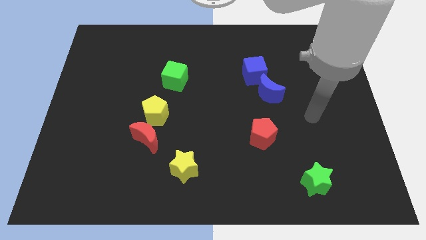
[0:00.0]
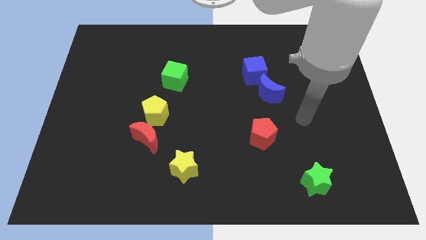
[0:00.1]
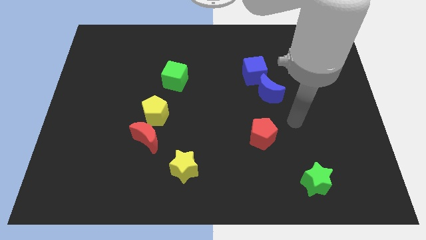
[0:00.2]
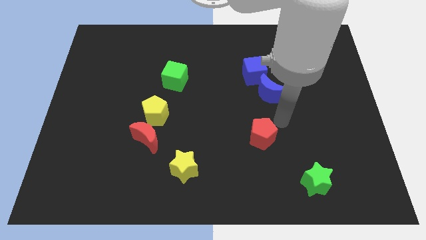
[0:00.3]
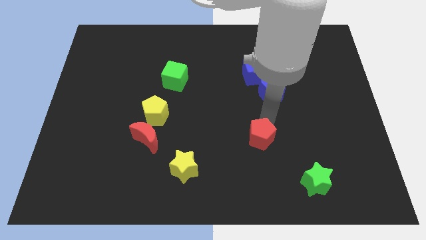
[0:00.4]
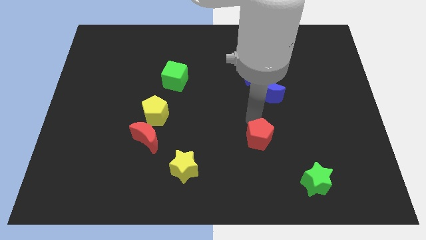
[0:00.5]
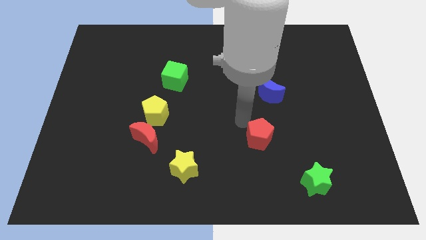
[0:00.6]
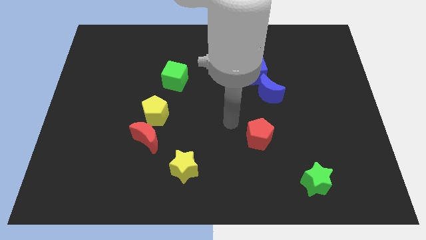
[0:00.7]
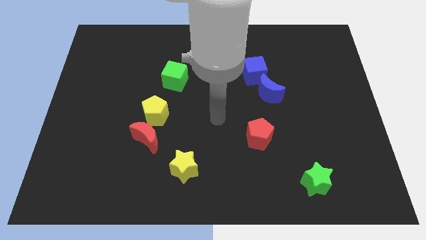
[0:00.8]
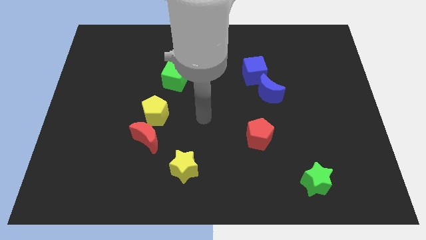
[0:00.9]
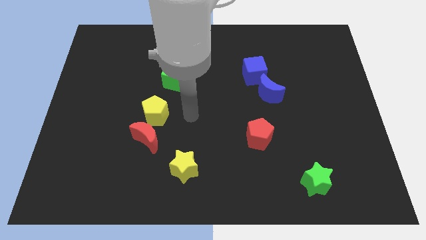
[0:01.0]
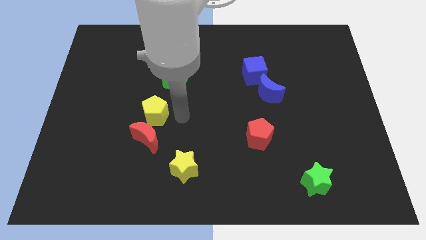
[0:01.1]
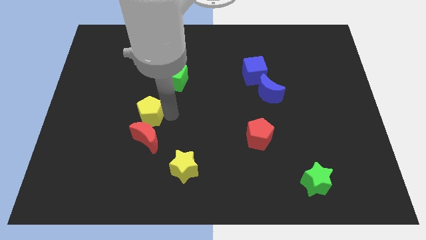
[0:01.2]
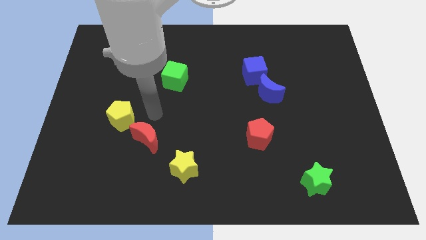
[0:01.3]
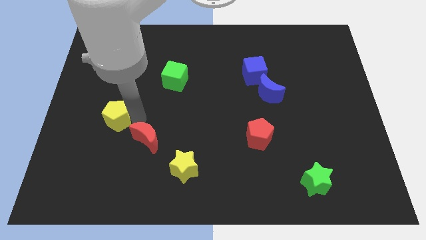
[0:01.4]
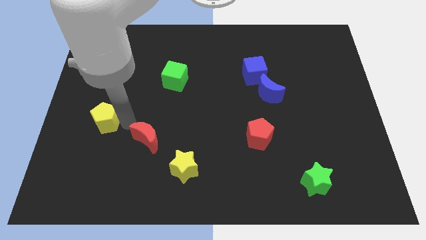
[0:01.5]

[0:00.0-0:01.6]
pull the red moon apart from the yellow pentagon

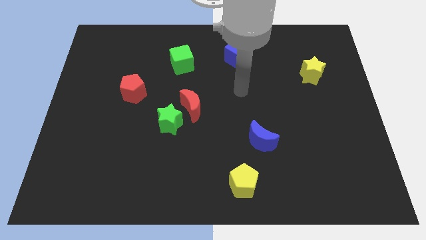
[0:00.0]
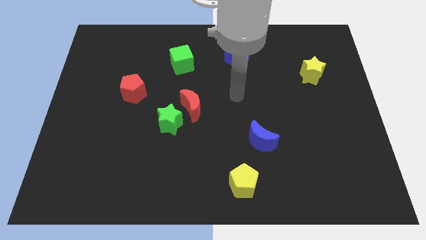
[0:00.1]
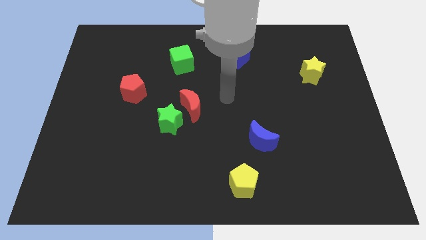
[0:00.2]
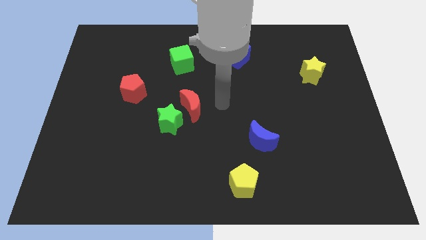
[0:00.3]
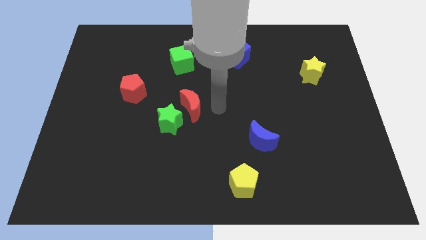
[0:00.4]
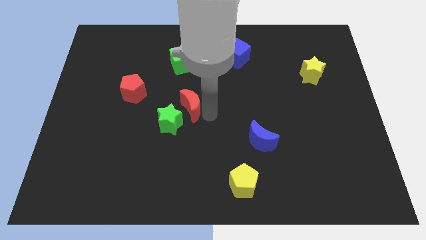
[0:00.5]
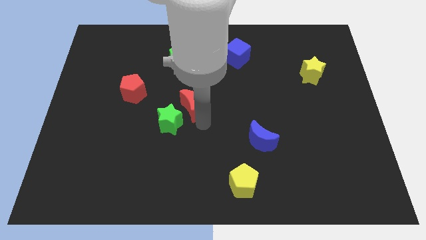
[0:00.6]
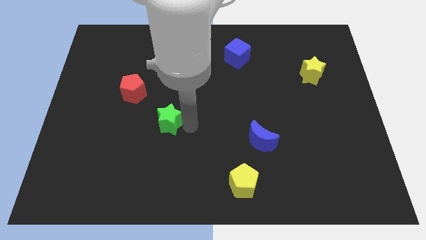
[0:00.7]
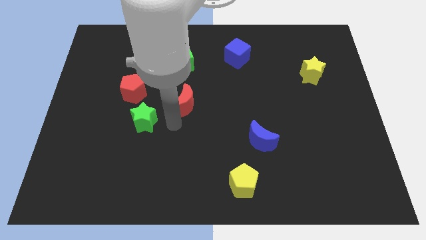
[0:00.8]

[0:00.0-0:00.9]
separate the red moon from the green star

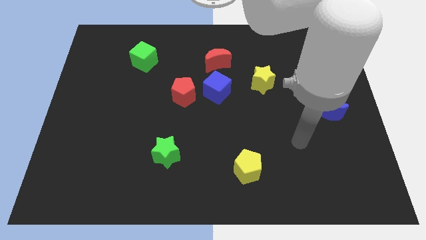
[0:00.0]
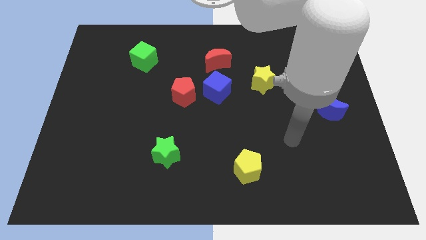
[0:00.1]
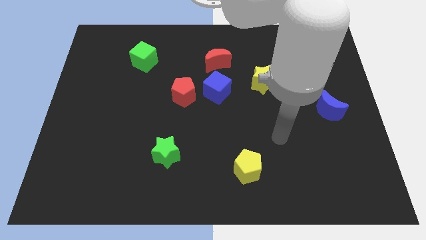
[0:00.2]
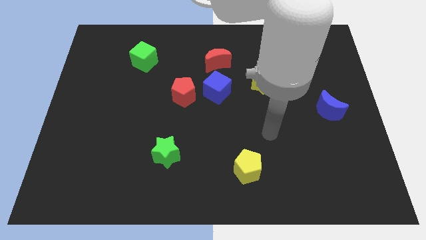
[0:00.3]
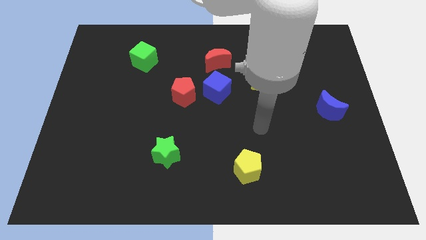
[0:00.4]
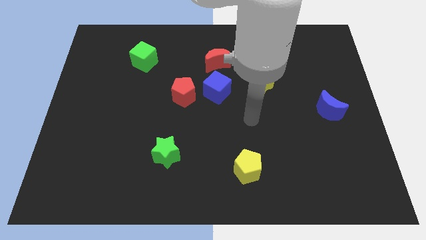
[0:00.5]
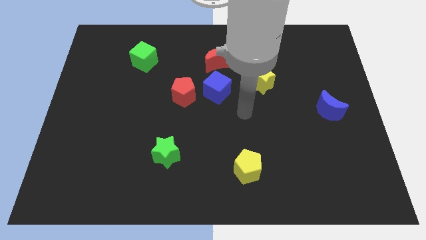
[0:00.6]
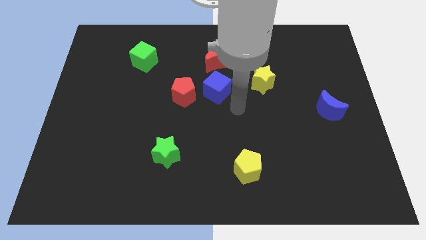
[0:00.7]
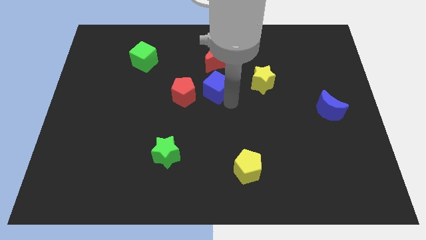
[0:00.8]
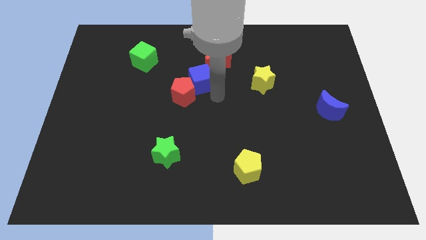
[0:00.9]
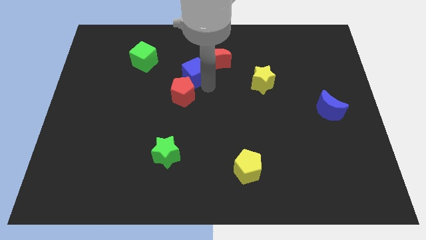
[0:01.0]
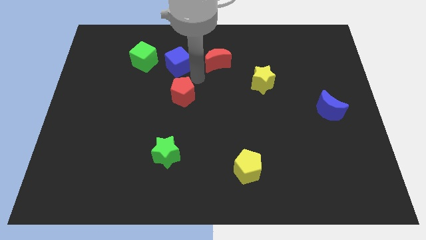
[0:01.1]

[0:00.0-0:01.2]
separate the red pentagon from the blue cube

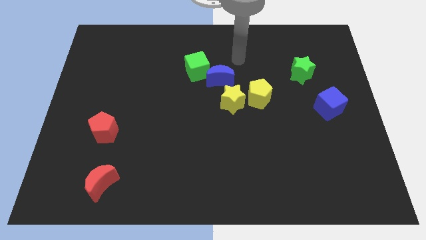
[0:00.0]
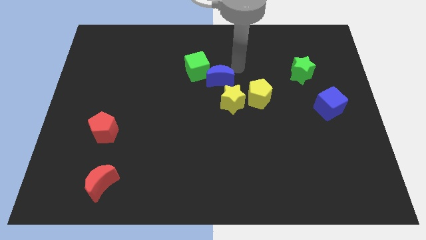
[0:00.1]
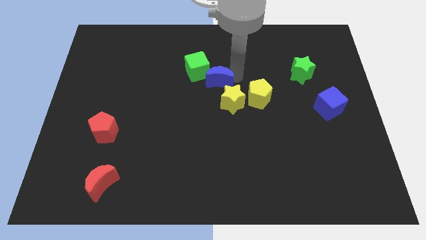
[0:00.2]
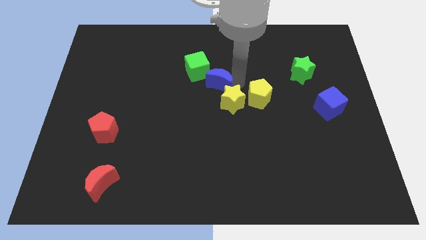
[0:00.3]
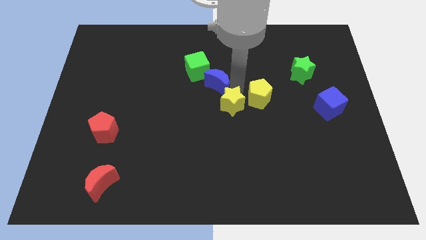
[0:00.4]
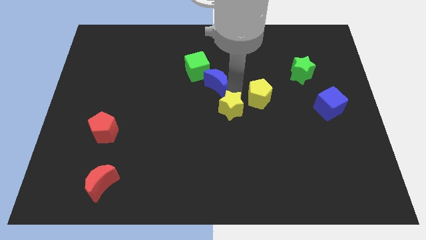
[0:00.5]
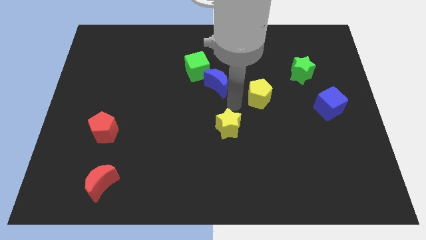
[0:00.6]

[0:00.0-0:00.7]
move the yellow pentagon away from the yellow star

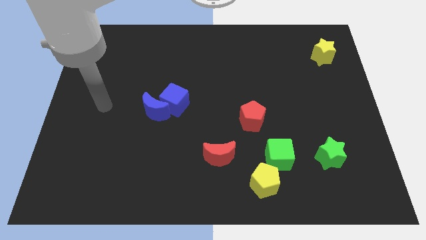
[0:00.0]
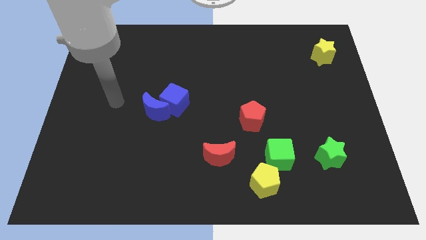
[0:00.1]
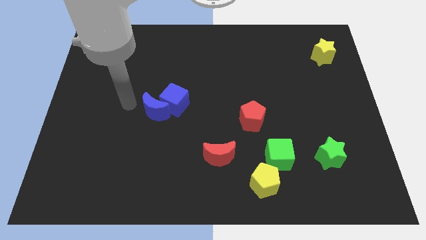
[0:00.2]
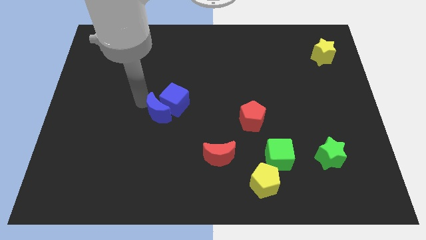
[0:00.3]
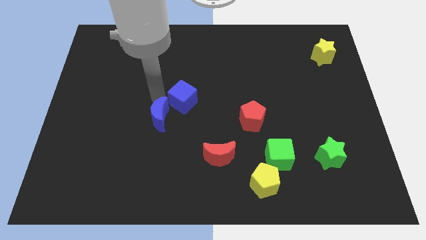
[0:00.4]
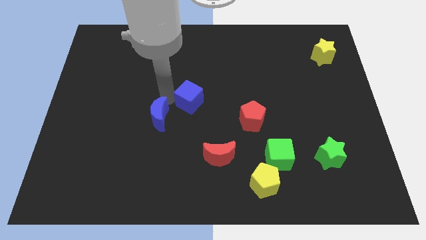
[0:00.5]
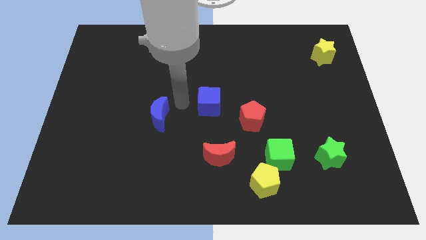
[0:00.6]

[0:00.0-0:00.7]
pull the blue moon apart from the blue cube

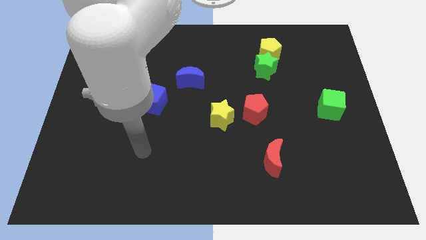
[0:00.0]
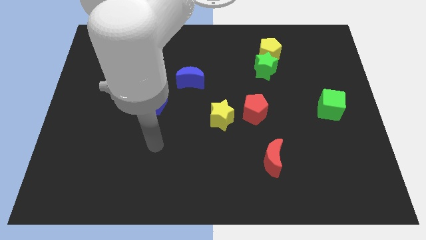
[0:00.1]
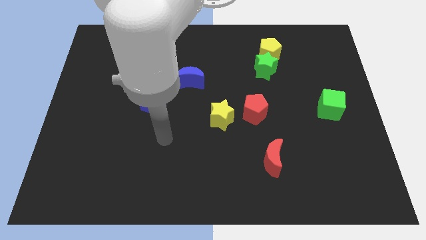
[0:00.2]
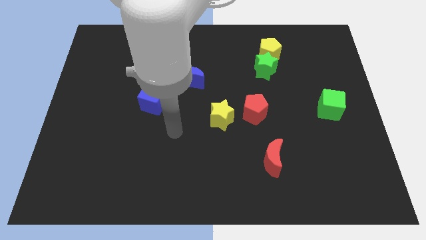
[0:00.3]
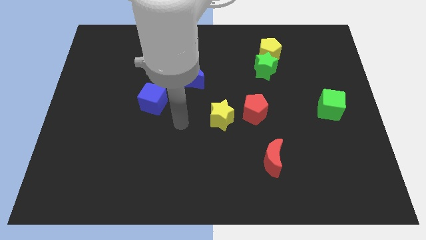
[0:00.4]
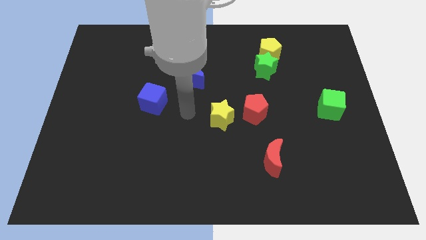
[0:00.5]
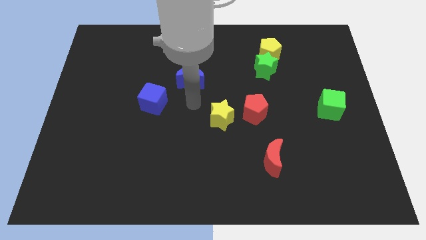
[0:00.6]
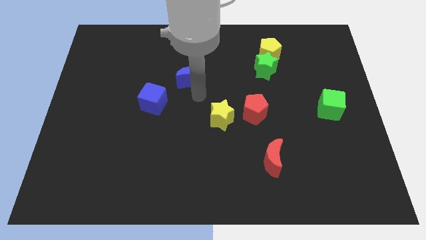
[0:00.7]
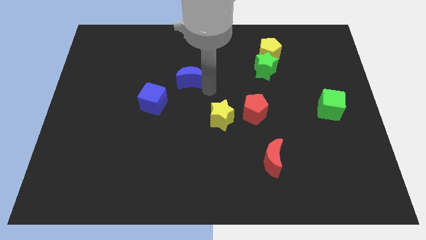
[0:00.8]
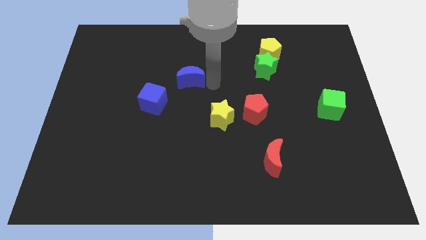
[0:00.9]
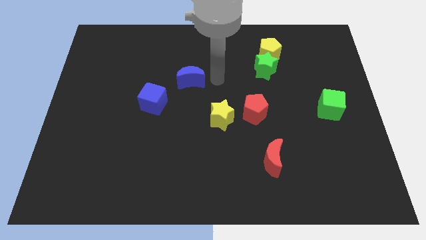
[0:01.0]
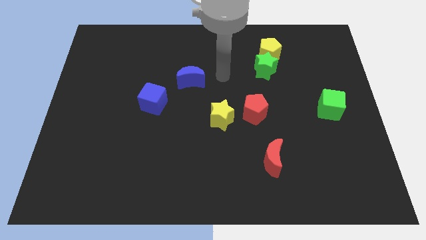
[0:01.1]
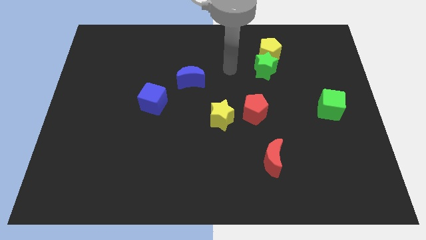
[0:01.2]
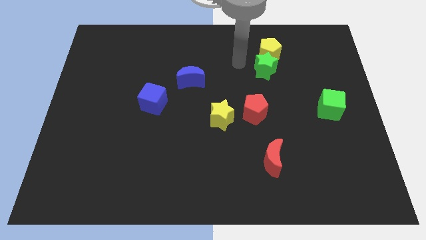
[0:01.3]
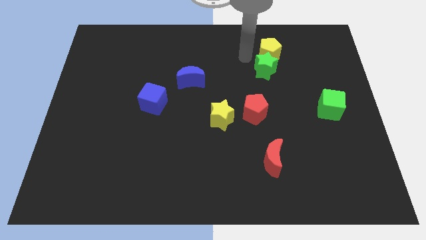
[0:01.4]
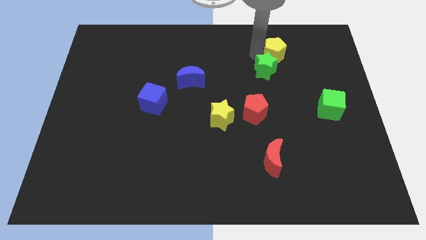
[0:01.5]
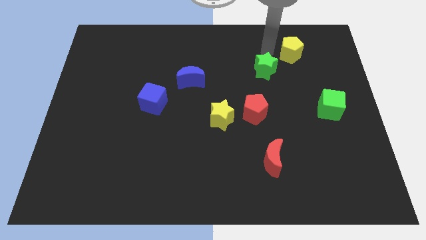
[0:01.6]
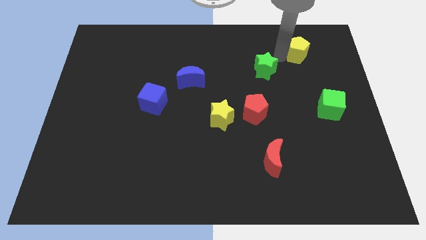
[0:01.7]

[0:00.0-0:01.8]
separate the green star from the yellow pentagon

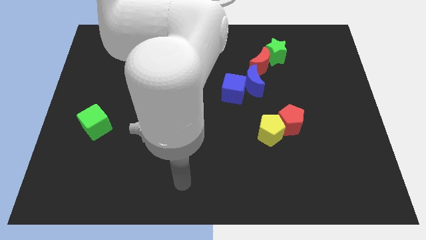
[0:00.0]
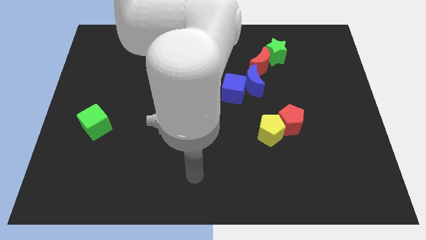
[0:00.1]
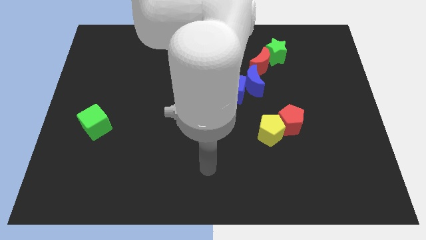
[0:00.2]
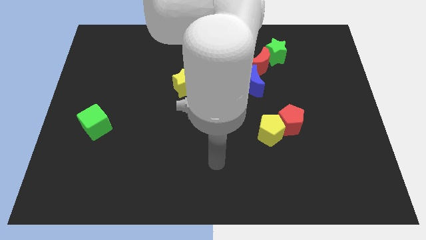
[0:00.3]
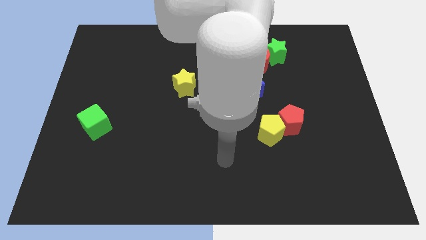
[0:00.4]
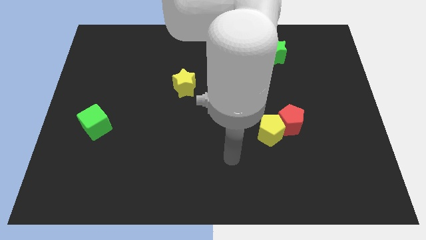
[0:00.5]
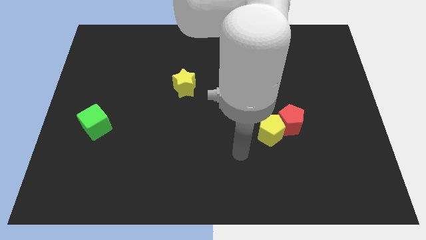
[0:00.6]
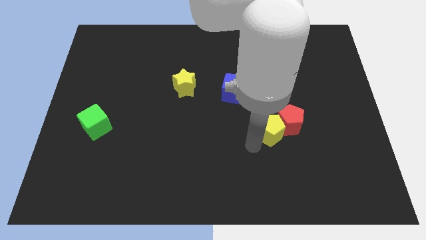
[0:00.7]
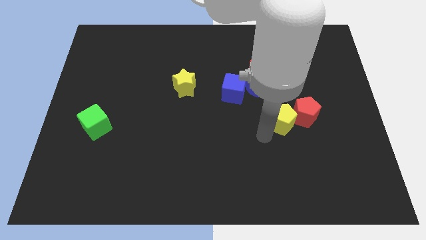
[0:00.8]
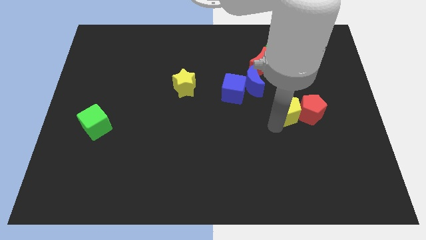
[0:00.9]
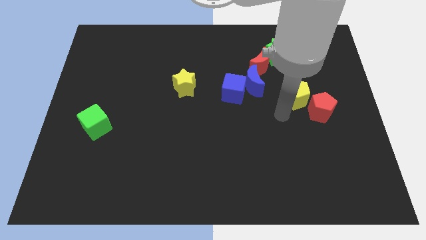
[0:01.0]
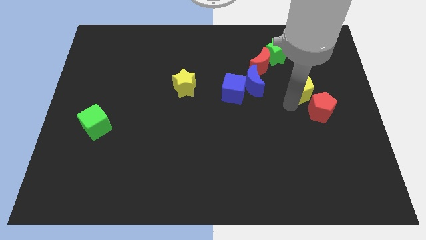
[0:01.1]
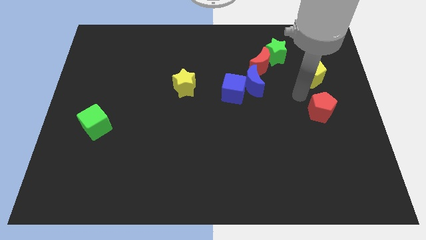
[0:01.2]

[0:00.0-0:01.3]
move the red pentagon away from the yellow pentagon

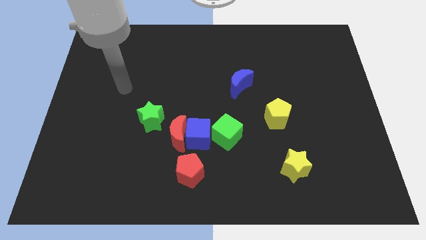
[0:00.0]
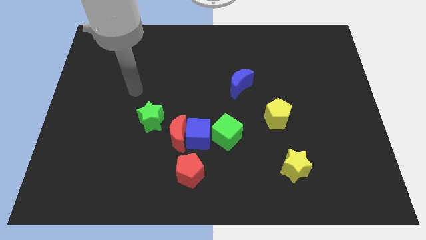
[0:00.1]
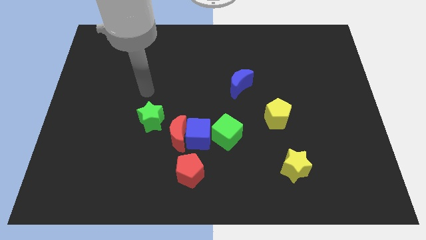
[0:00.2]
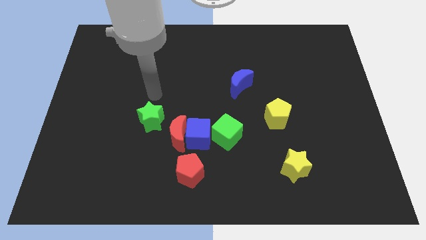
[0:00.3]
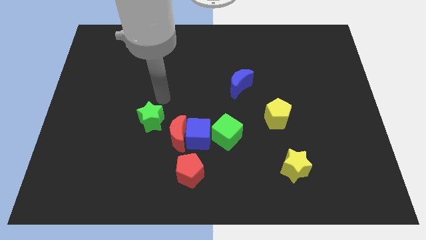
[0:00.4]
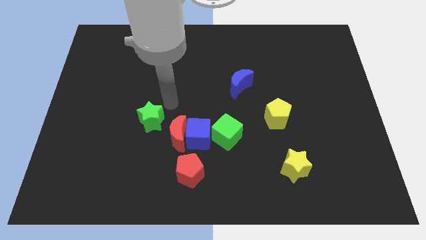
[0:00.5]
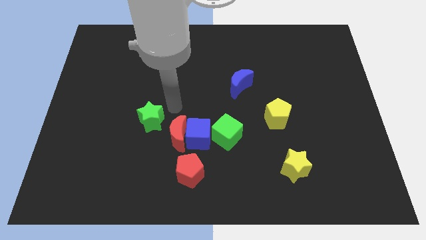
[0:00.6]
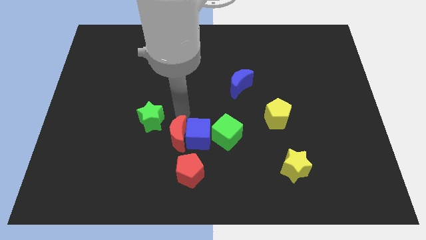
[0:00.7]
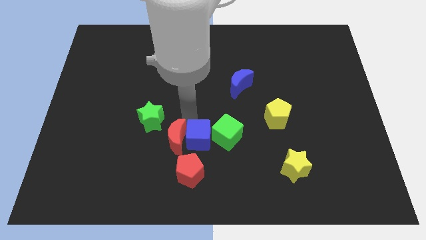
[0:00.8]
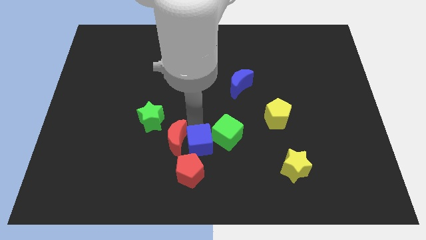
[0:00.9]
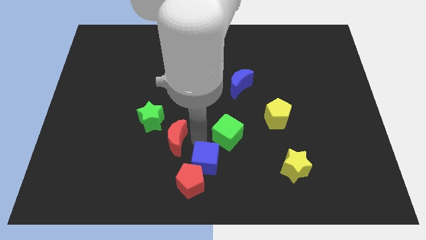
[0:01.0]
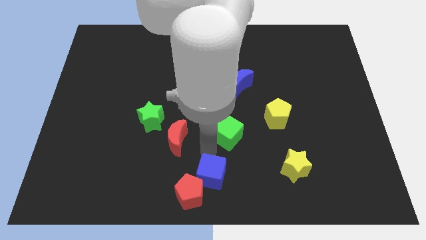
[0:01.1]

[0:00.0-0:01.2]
separate the green cube from the blue cube
